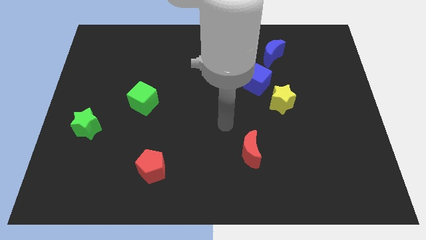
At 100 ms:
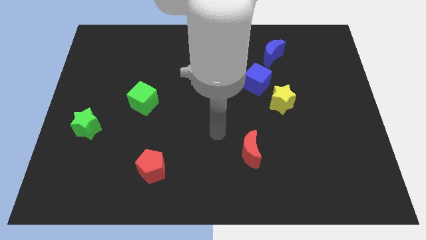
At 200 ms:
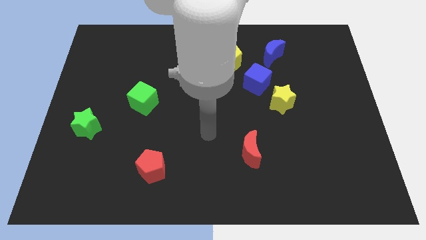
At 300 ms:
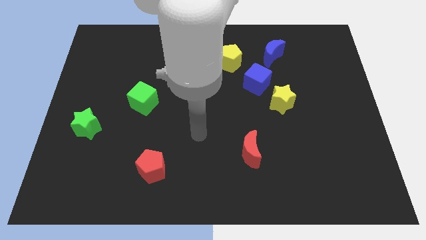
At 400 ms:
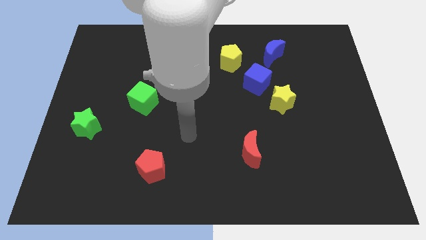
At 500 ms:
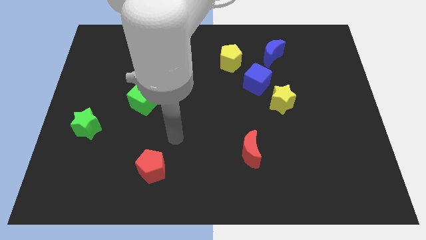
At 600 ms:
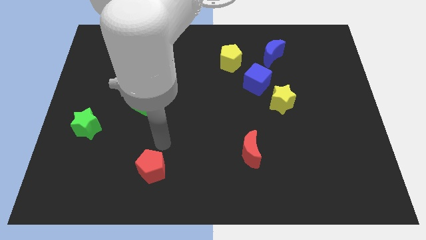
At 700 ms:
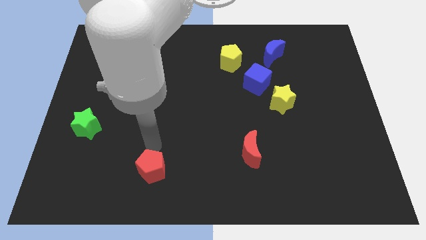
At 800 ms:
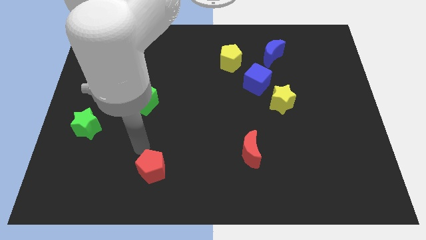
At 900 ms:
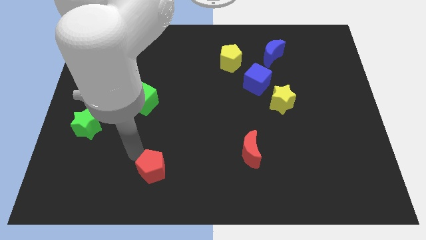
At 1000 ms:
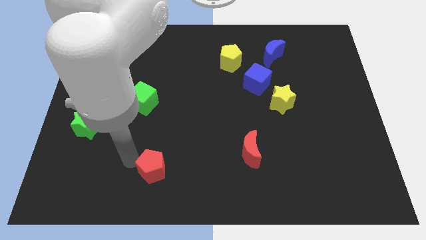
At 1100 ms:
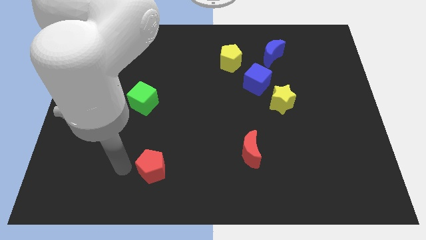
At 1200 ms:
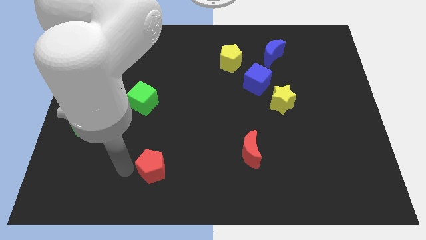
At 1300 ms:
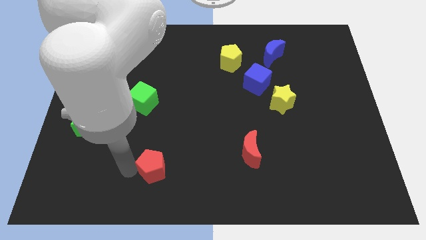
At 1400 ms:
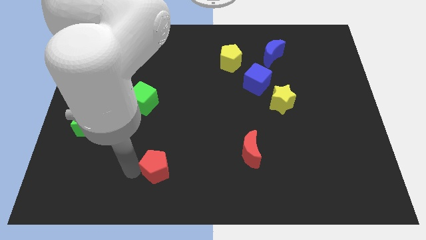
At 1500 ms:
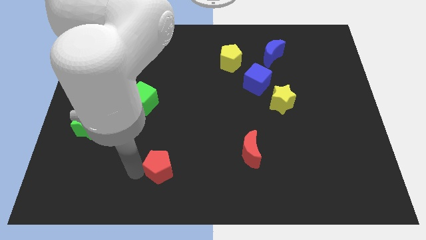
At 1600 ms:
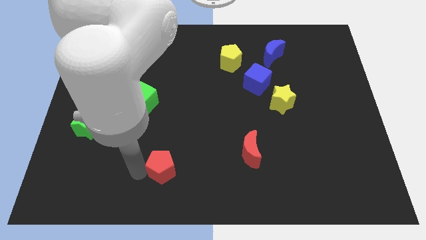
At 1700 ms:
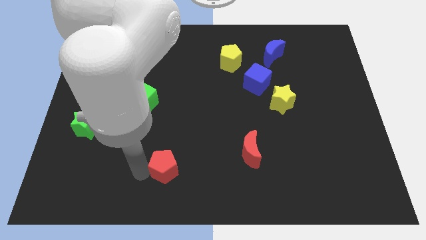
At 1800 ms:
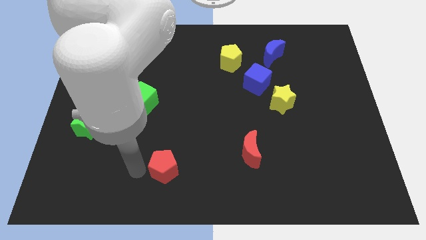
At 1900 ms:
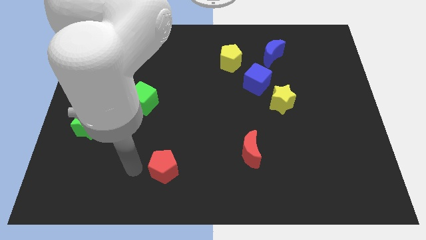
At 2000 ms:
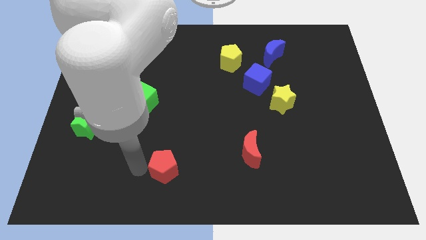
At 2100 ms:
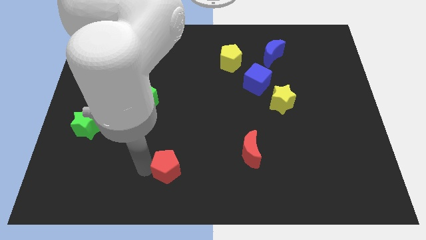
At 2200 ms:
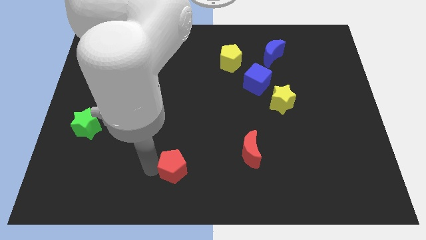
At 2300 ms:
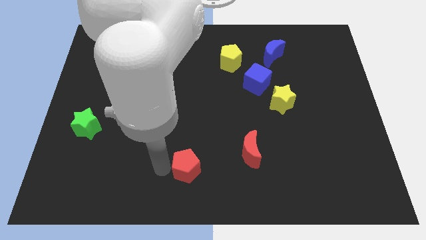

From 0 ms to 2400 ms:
slightly slide the red pentagon right

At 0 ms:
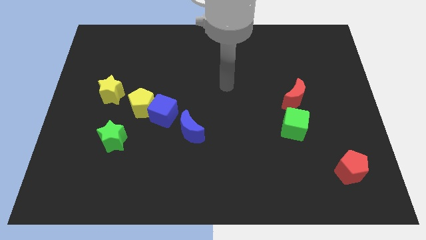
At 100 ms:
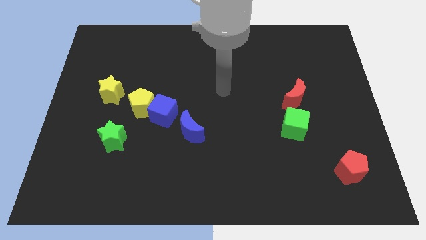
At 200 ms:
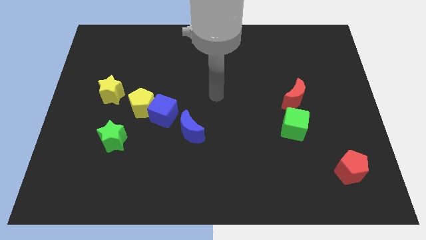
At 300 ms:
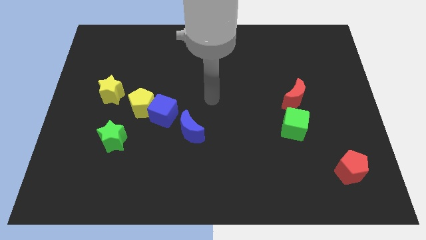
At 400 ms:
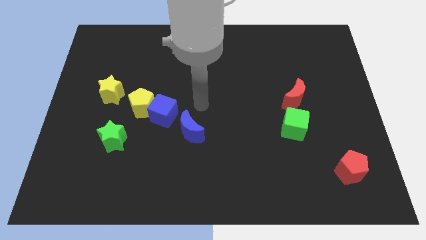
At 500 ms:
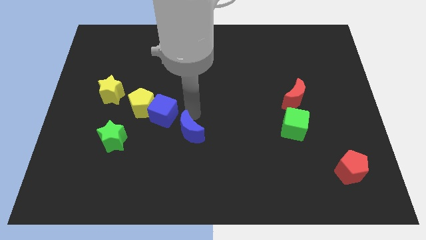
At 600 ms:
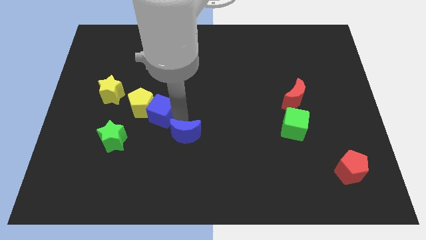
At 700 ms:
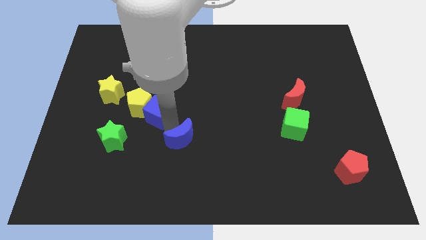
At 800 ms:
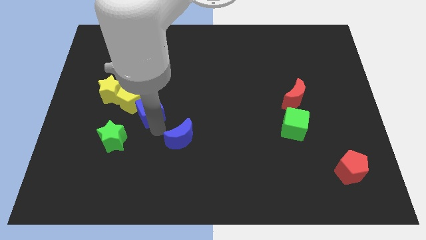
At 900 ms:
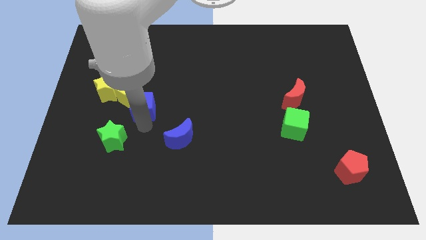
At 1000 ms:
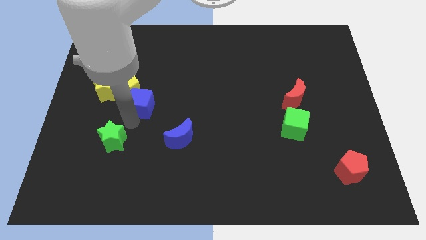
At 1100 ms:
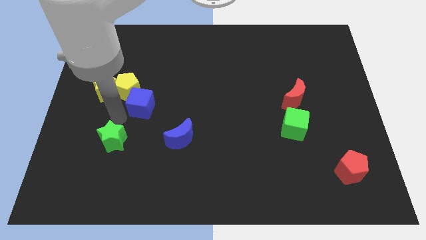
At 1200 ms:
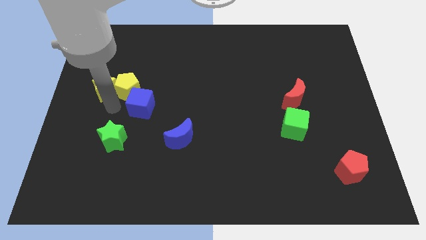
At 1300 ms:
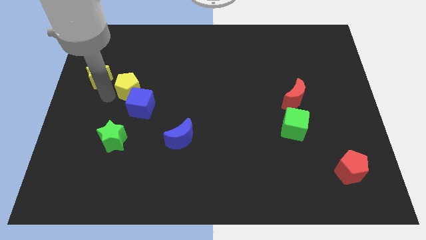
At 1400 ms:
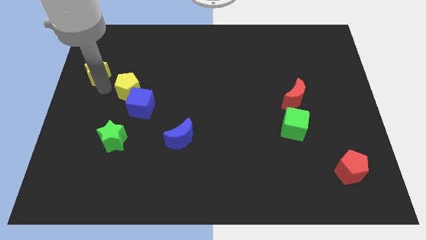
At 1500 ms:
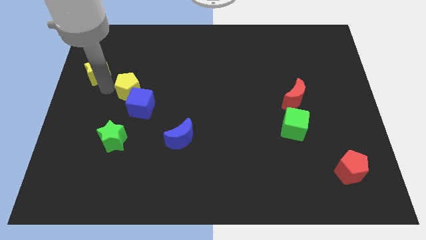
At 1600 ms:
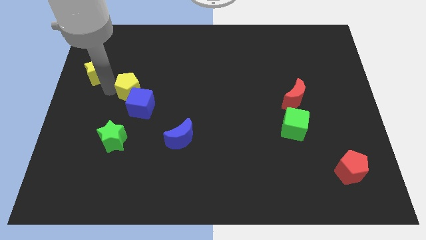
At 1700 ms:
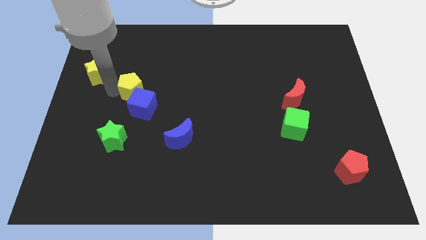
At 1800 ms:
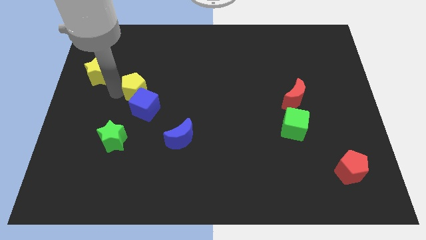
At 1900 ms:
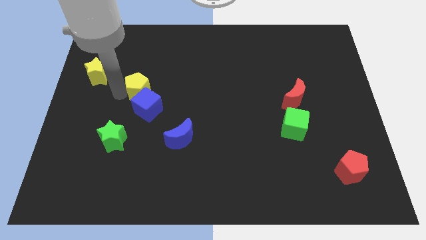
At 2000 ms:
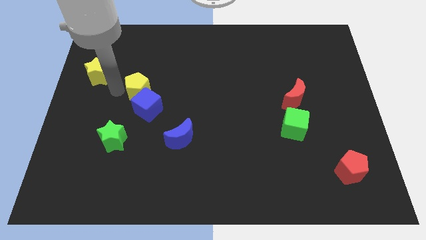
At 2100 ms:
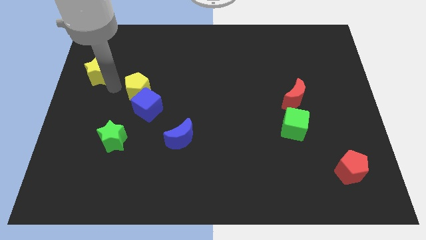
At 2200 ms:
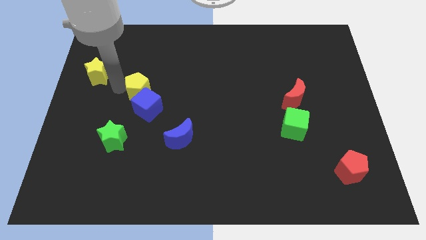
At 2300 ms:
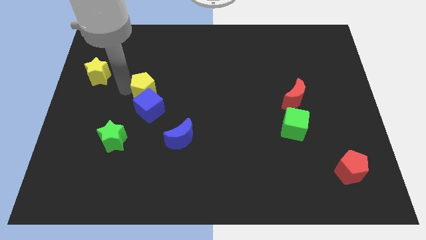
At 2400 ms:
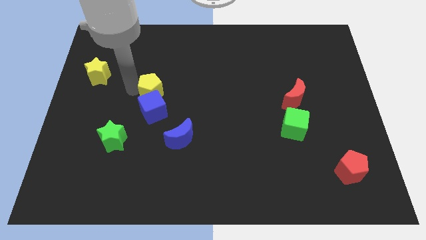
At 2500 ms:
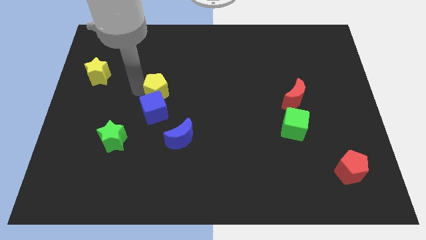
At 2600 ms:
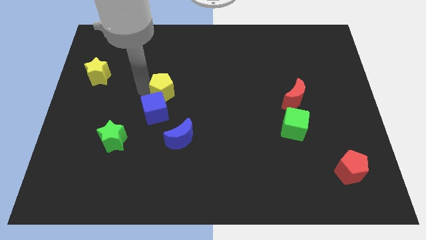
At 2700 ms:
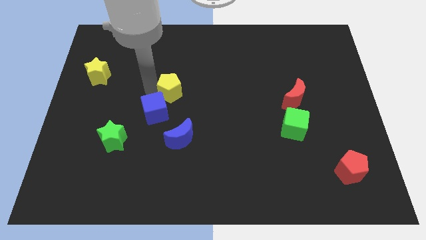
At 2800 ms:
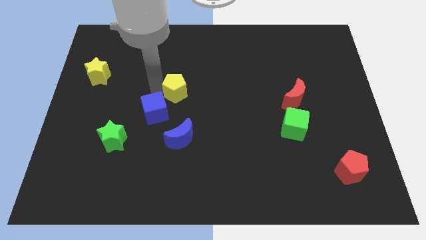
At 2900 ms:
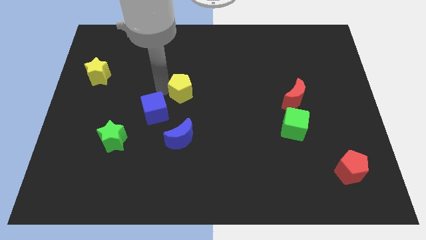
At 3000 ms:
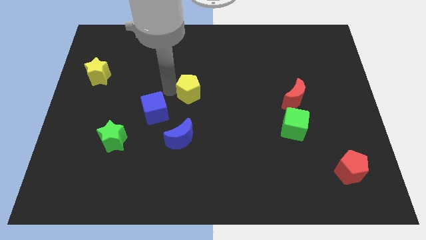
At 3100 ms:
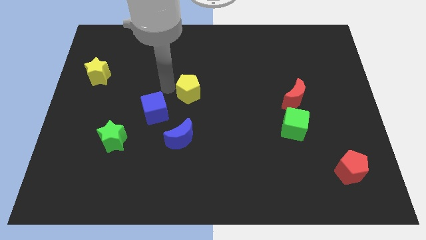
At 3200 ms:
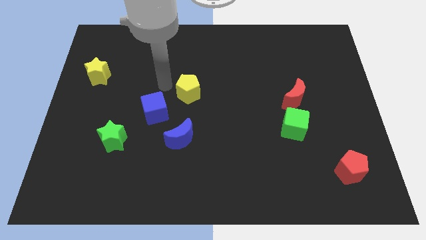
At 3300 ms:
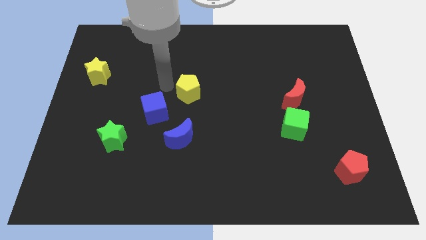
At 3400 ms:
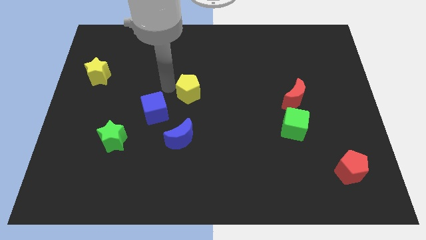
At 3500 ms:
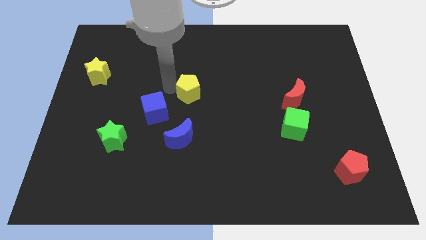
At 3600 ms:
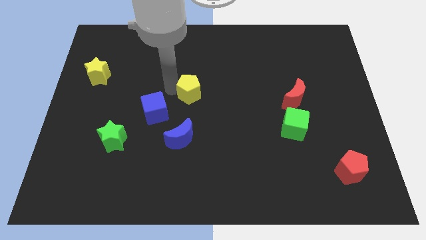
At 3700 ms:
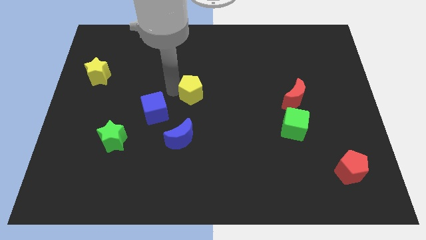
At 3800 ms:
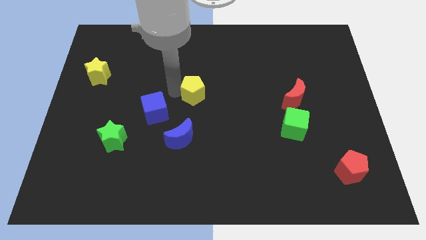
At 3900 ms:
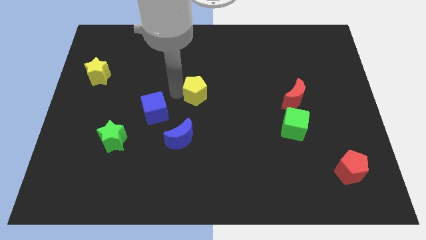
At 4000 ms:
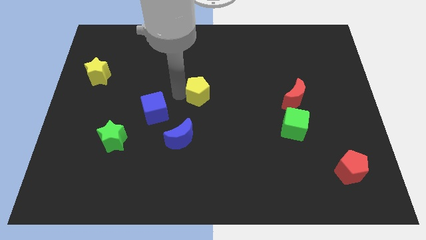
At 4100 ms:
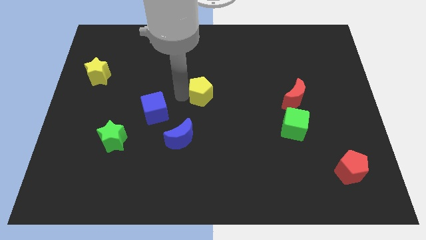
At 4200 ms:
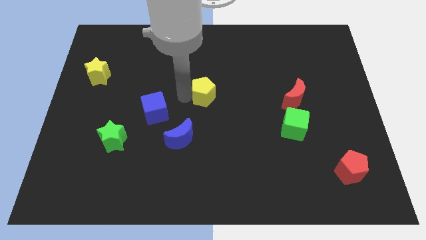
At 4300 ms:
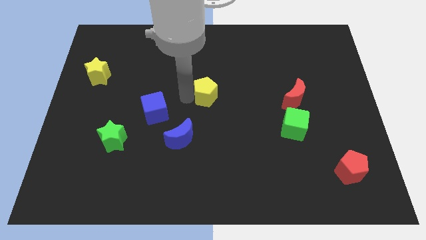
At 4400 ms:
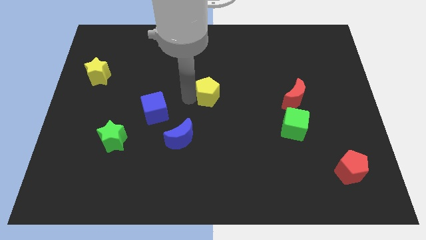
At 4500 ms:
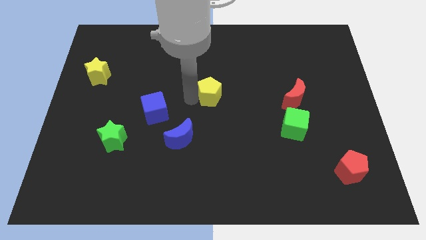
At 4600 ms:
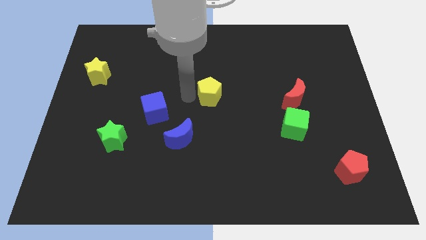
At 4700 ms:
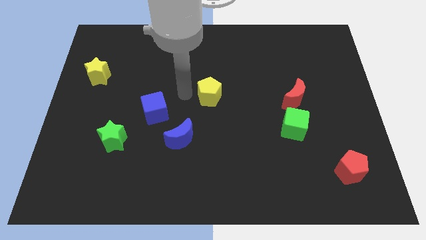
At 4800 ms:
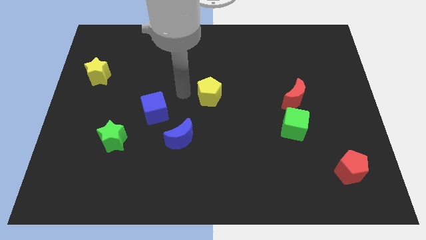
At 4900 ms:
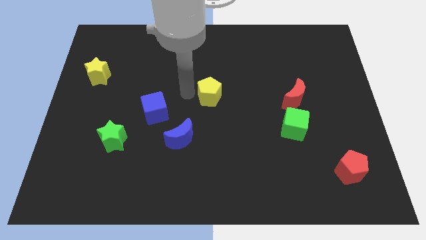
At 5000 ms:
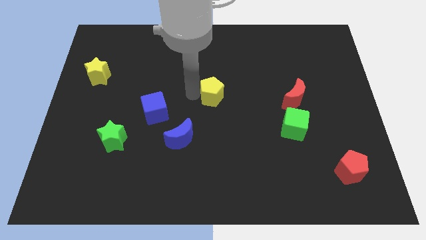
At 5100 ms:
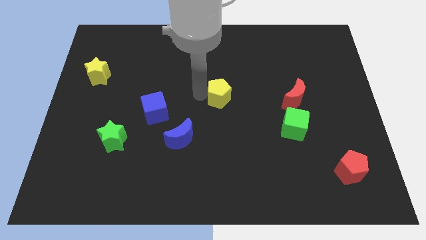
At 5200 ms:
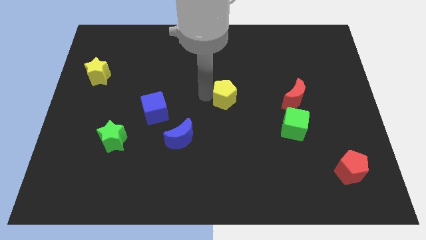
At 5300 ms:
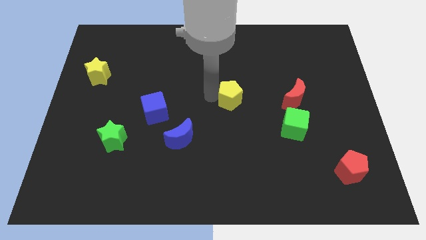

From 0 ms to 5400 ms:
move the yellow pentagon right

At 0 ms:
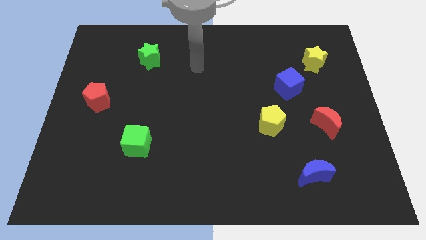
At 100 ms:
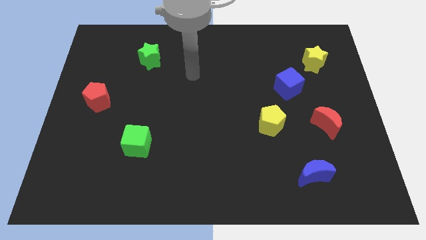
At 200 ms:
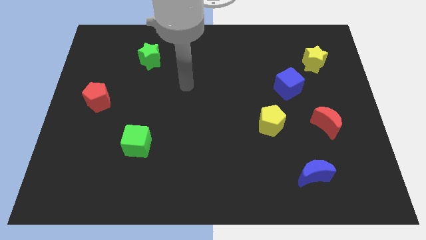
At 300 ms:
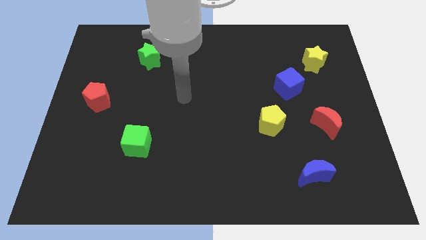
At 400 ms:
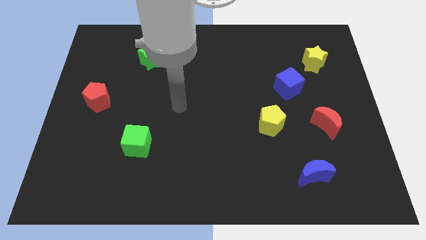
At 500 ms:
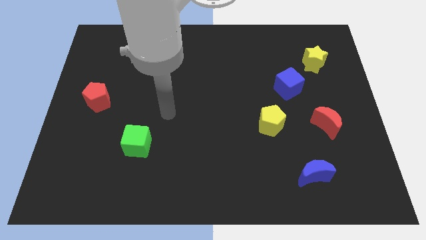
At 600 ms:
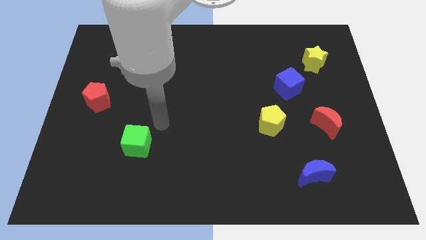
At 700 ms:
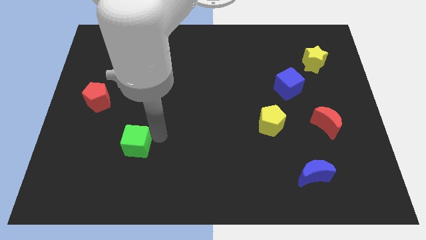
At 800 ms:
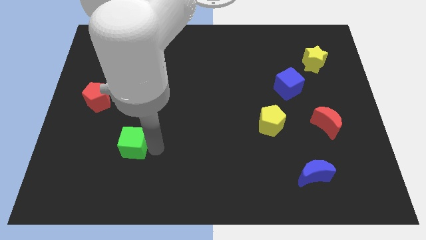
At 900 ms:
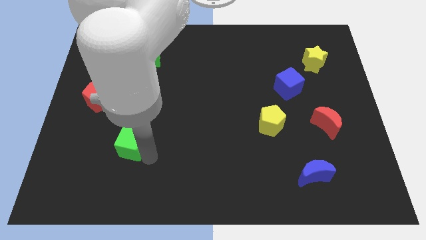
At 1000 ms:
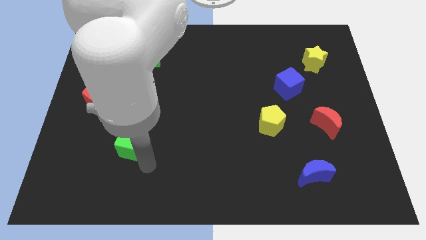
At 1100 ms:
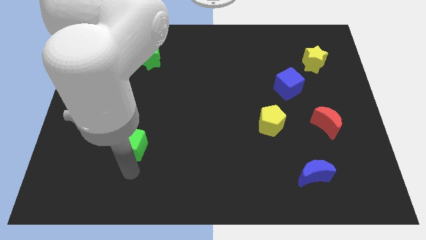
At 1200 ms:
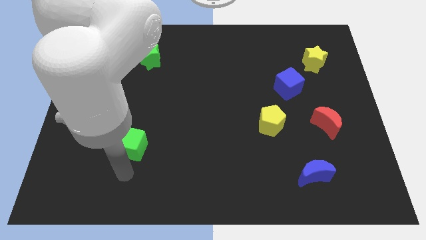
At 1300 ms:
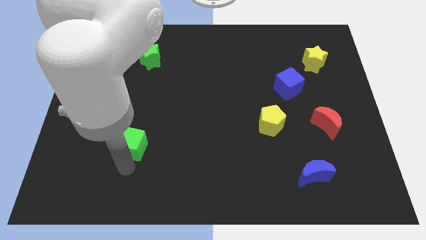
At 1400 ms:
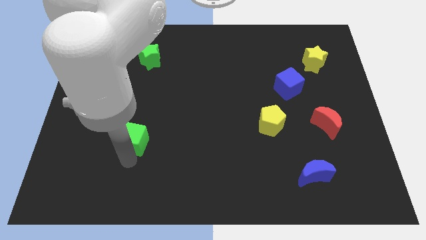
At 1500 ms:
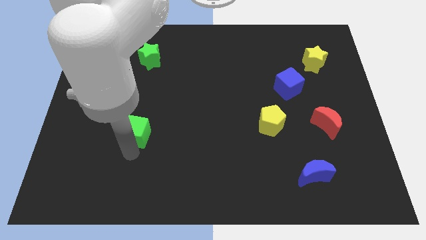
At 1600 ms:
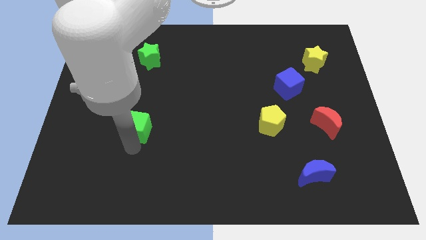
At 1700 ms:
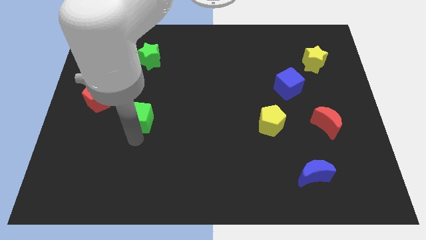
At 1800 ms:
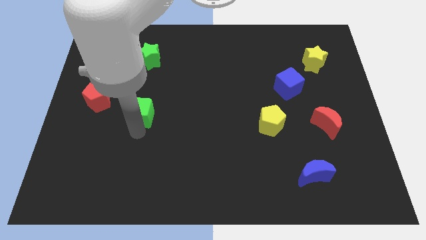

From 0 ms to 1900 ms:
move the green cube upwards somewhat
